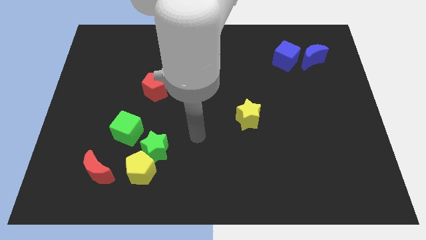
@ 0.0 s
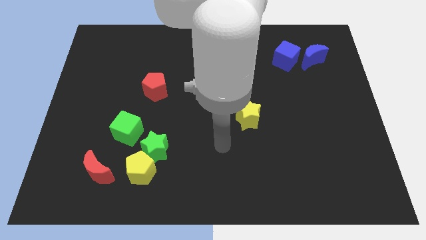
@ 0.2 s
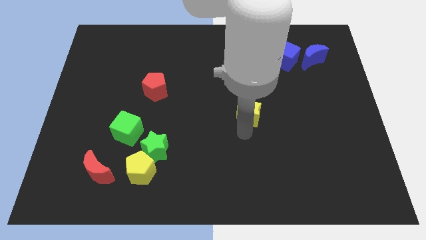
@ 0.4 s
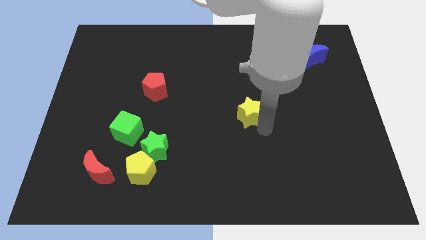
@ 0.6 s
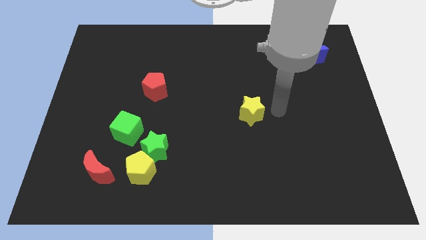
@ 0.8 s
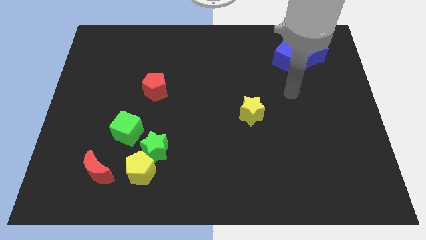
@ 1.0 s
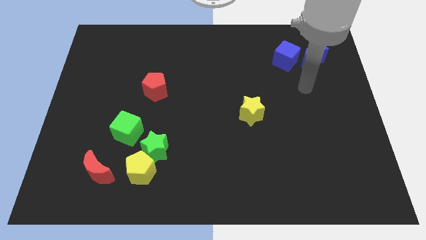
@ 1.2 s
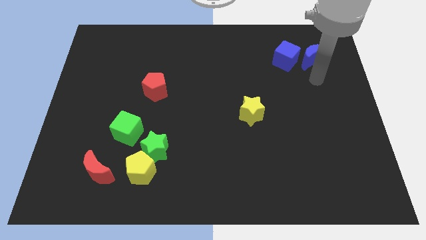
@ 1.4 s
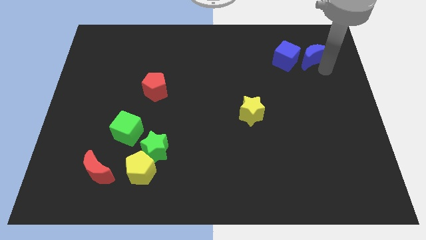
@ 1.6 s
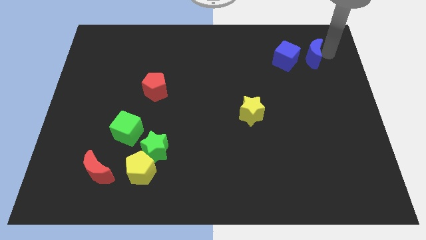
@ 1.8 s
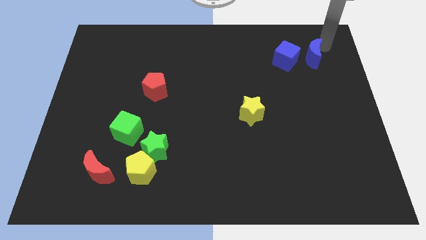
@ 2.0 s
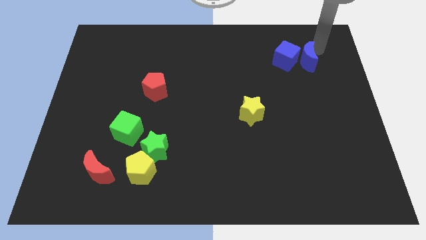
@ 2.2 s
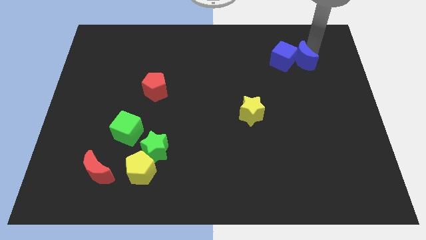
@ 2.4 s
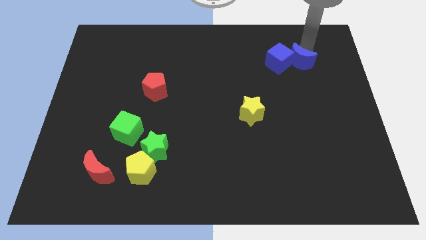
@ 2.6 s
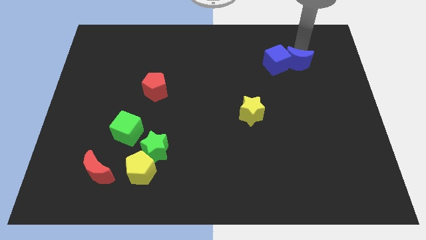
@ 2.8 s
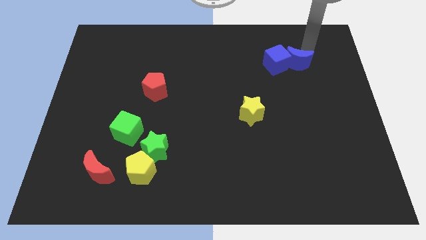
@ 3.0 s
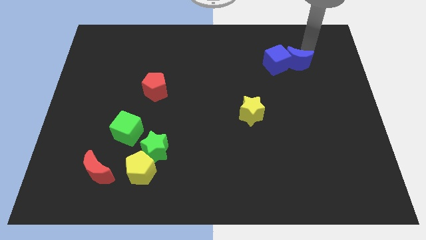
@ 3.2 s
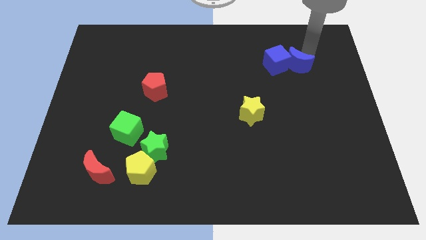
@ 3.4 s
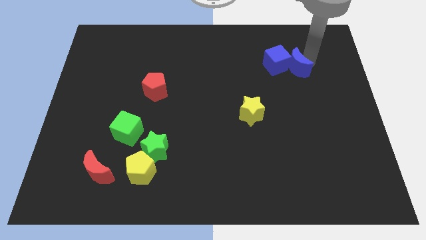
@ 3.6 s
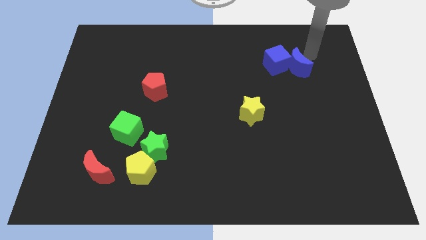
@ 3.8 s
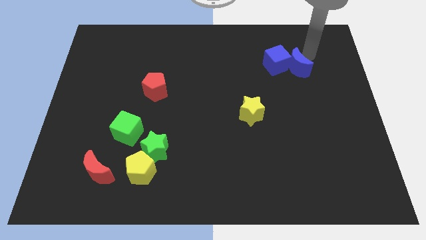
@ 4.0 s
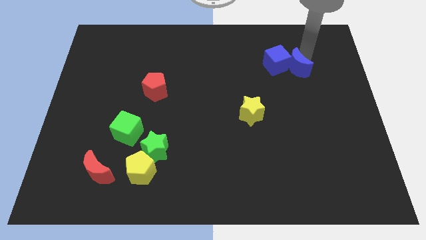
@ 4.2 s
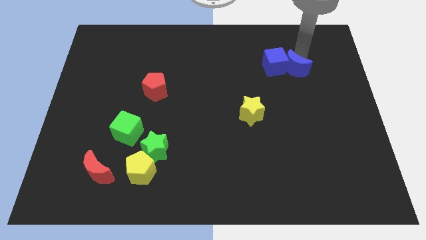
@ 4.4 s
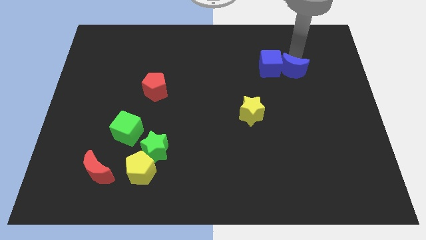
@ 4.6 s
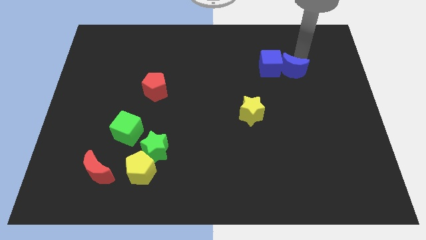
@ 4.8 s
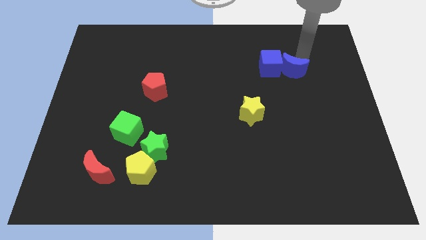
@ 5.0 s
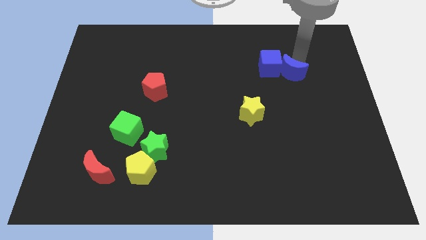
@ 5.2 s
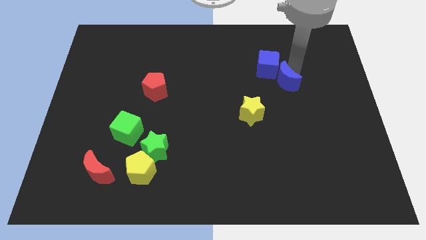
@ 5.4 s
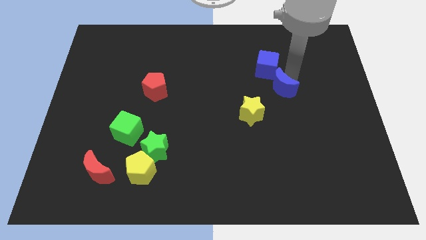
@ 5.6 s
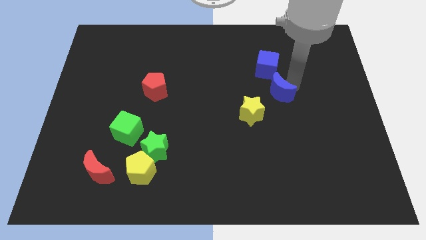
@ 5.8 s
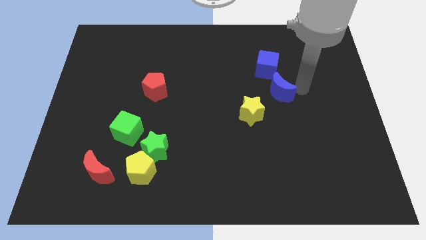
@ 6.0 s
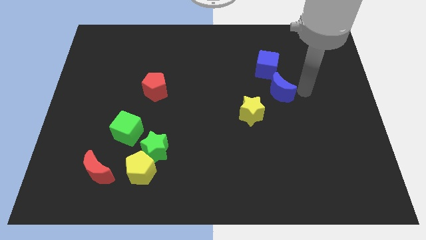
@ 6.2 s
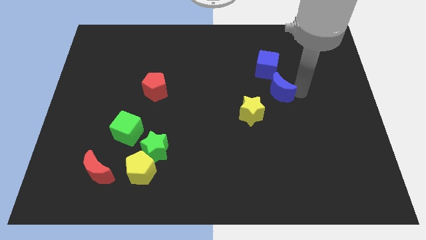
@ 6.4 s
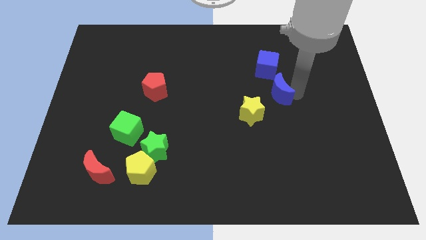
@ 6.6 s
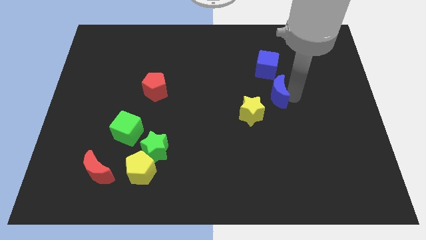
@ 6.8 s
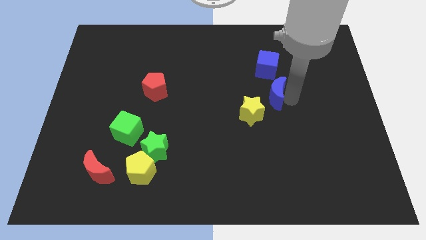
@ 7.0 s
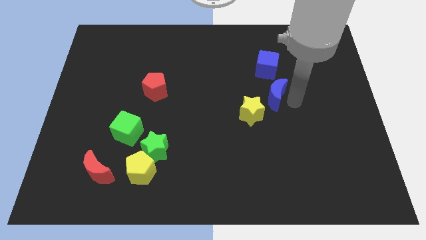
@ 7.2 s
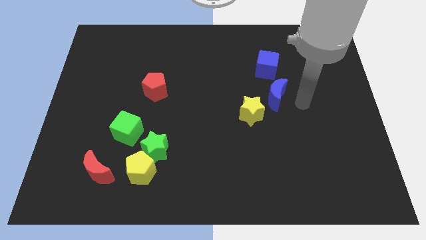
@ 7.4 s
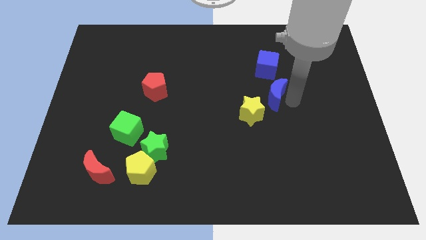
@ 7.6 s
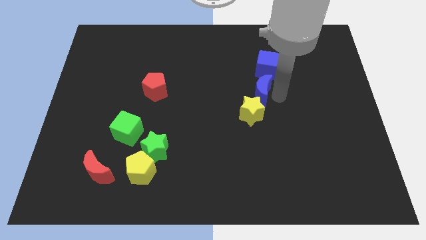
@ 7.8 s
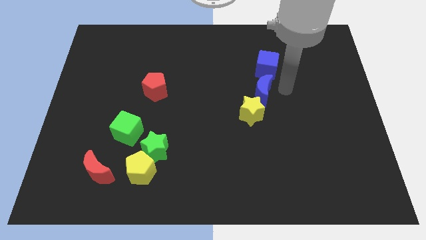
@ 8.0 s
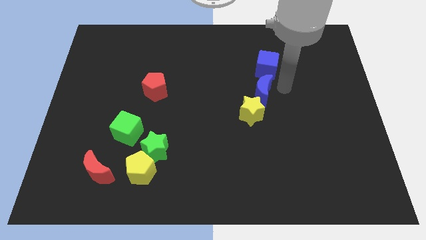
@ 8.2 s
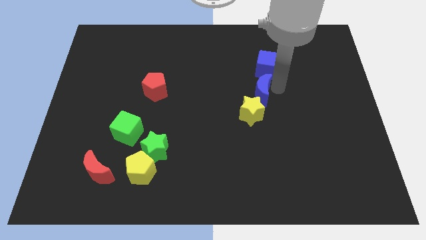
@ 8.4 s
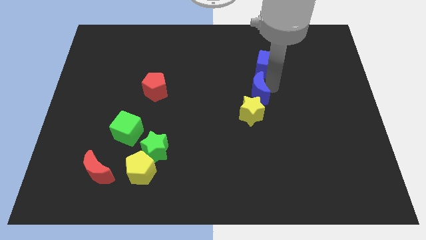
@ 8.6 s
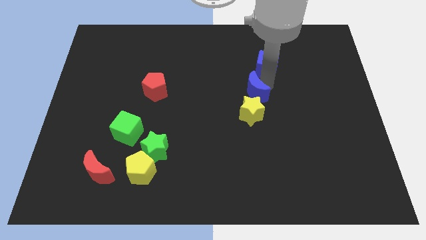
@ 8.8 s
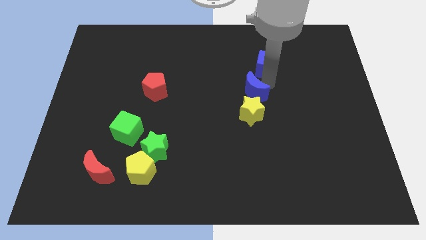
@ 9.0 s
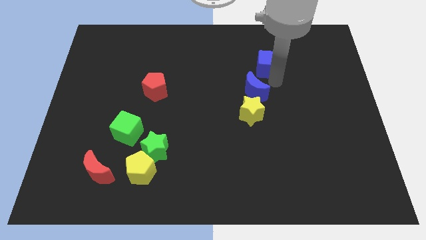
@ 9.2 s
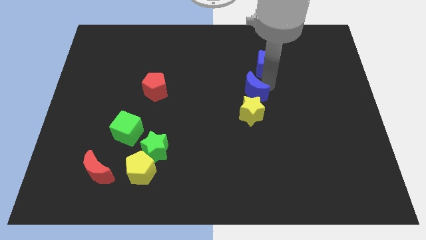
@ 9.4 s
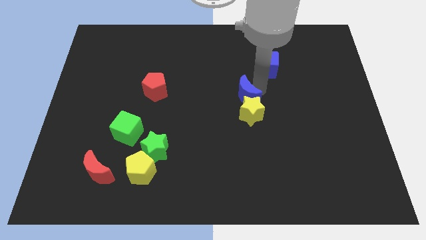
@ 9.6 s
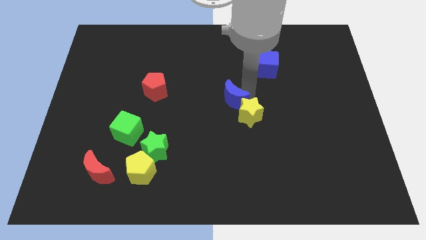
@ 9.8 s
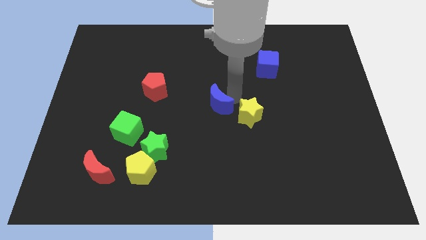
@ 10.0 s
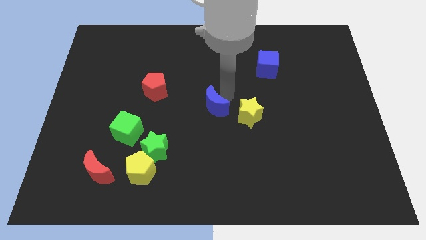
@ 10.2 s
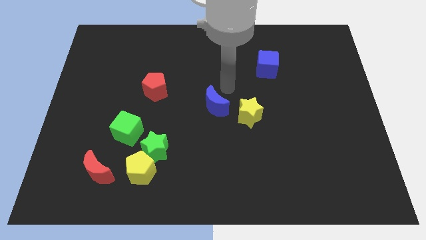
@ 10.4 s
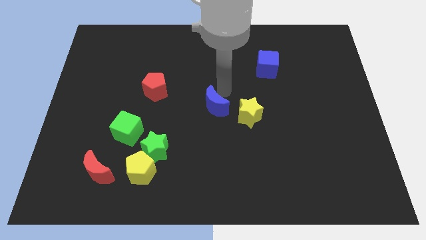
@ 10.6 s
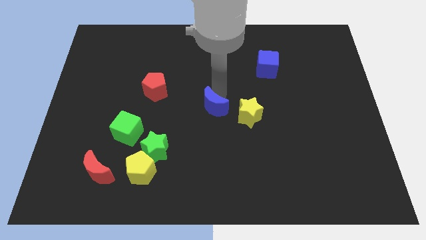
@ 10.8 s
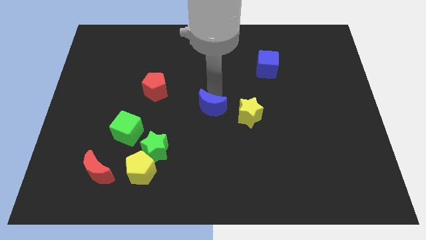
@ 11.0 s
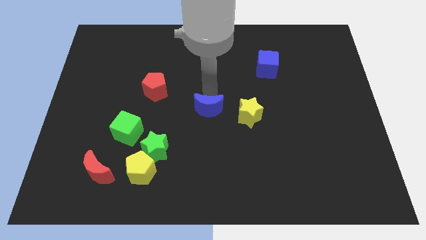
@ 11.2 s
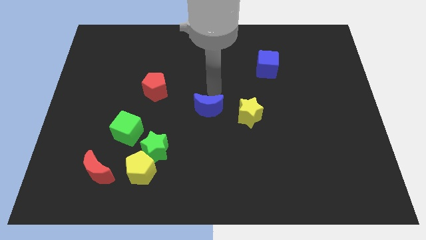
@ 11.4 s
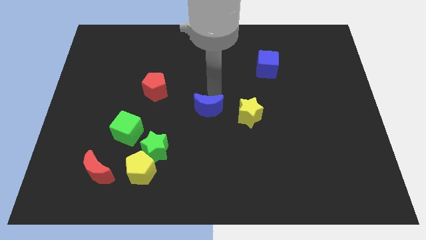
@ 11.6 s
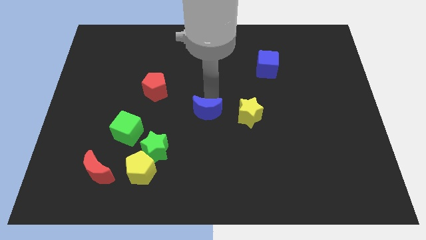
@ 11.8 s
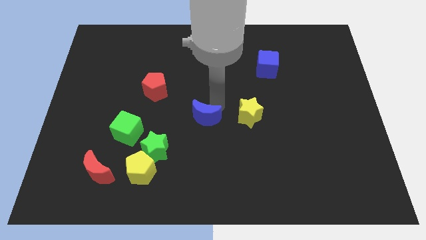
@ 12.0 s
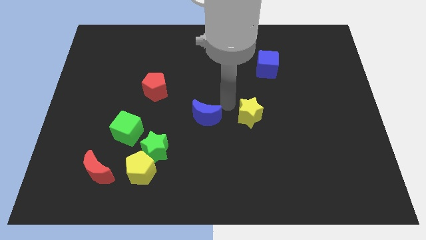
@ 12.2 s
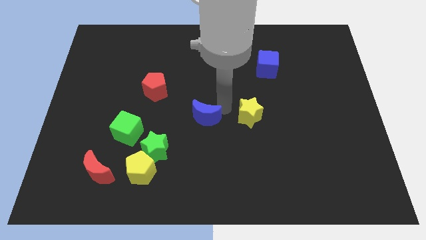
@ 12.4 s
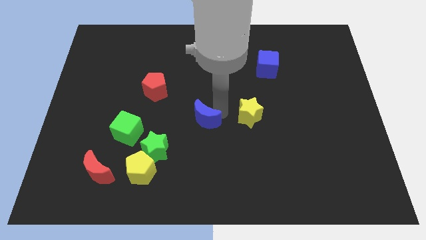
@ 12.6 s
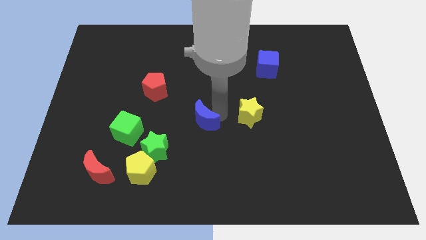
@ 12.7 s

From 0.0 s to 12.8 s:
slide the blue moon diagonally up and to the right of the green star

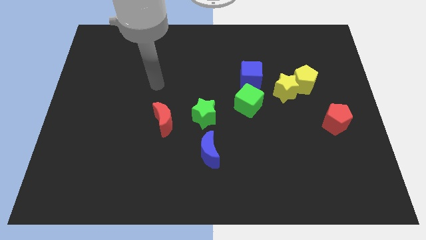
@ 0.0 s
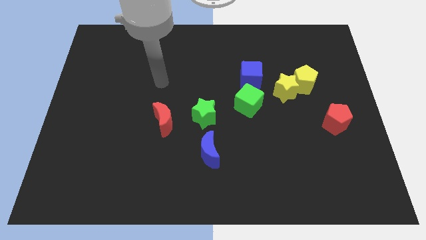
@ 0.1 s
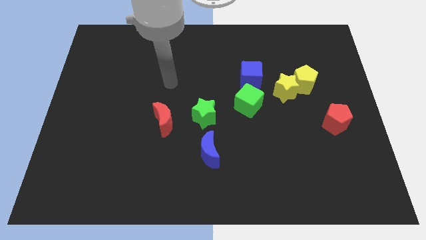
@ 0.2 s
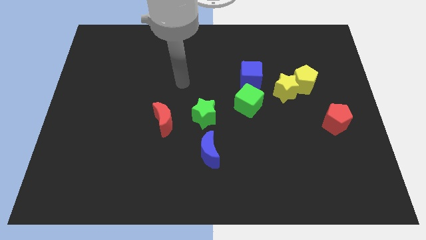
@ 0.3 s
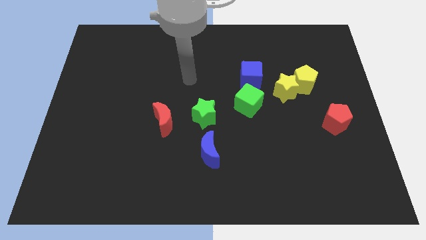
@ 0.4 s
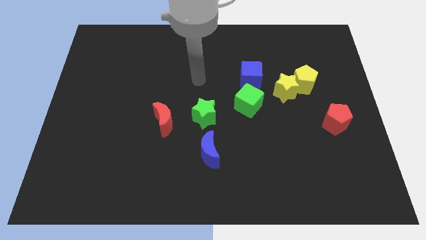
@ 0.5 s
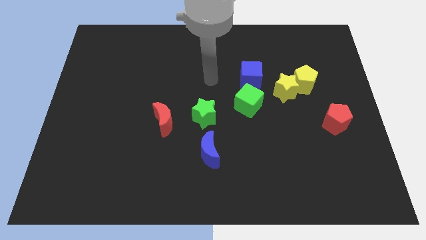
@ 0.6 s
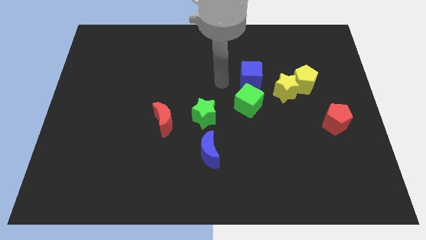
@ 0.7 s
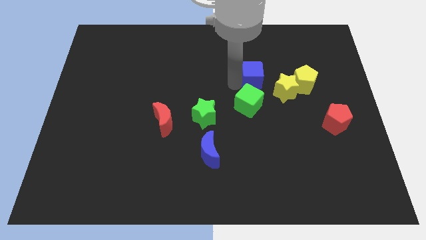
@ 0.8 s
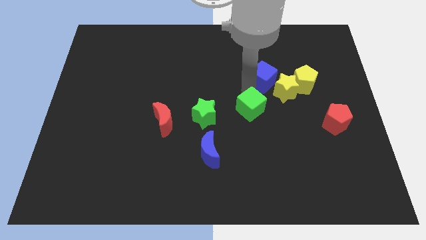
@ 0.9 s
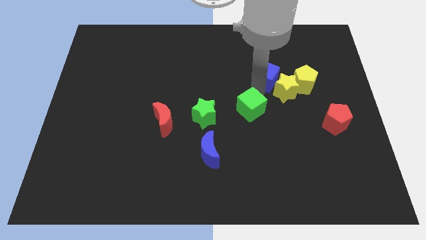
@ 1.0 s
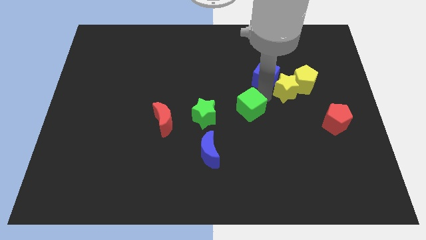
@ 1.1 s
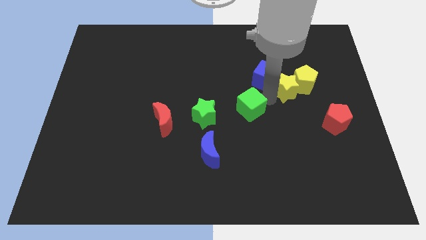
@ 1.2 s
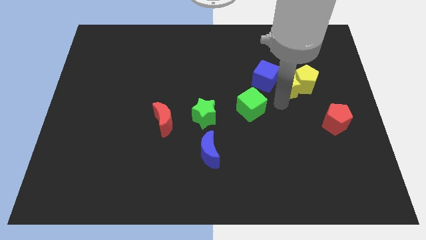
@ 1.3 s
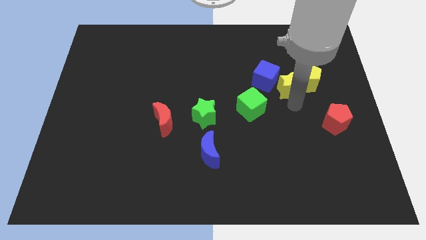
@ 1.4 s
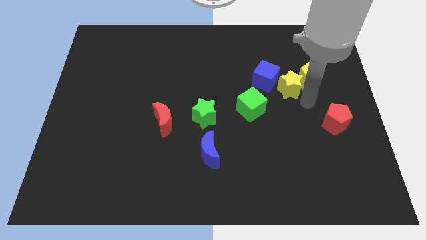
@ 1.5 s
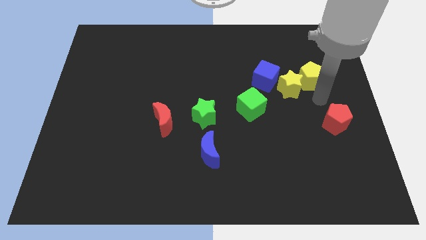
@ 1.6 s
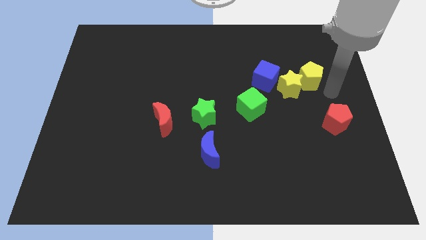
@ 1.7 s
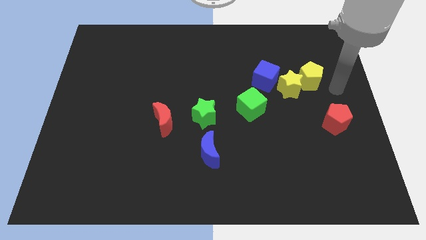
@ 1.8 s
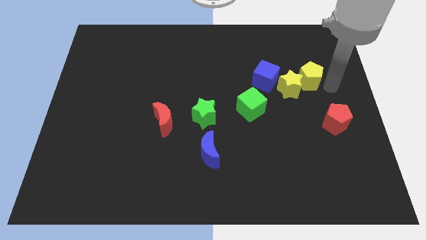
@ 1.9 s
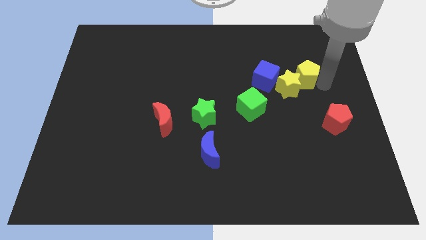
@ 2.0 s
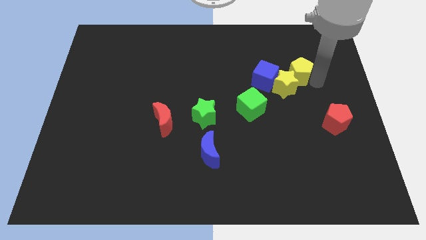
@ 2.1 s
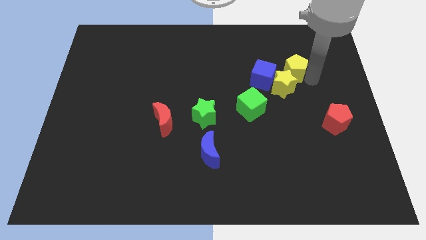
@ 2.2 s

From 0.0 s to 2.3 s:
push the yellow pentagon diagonally up and to the right of the blue cube
